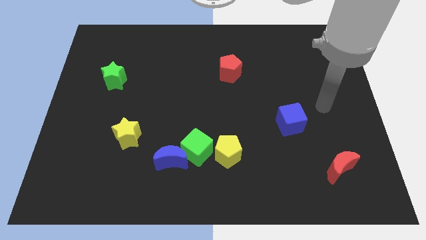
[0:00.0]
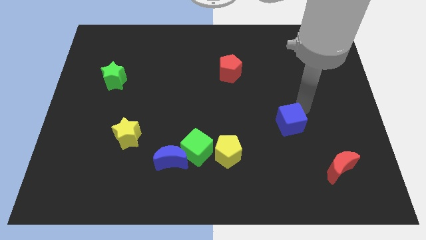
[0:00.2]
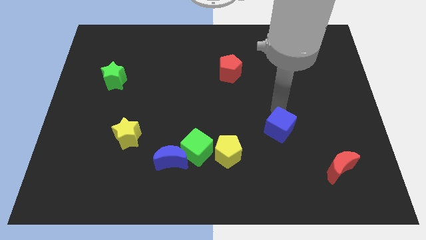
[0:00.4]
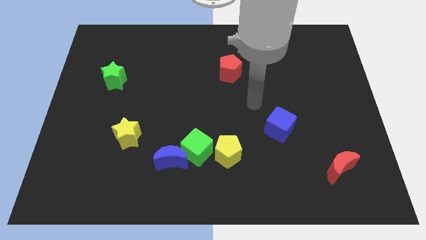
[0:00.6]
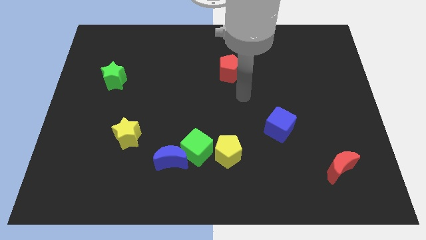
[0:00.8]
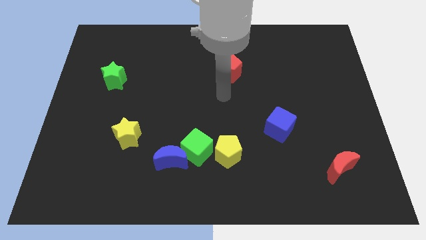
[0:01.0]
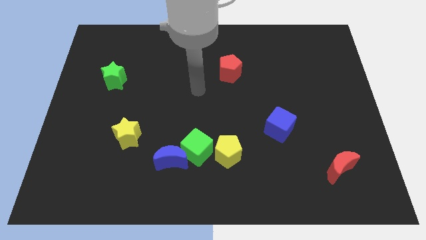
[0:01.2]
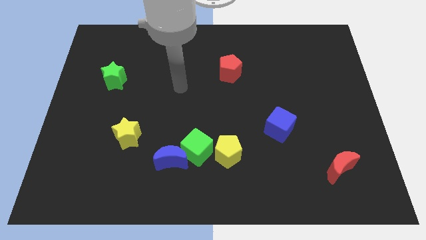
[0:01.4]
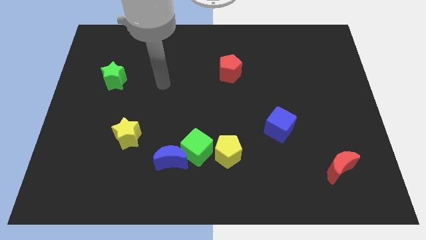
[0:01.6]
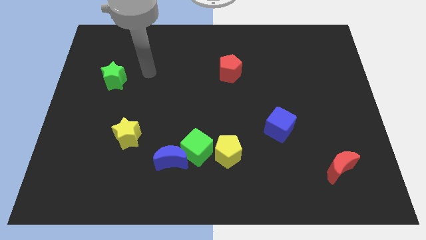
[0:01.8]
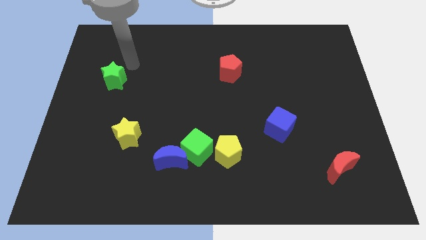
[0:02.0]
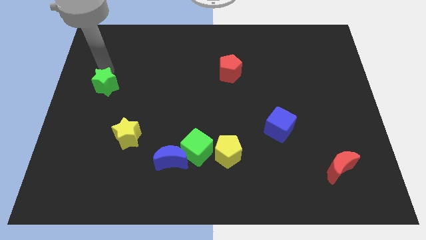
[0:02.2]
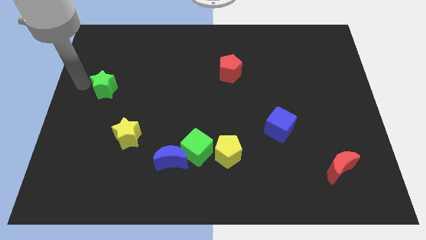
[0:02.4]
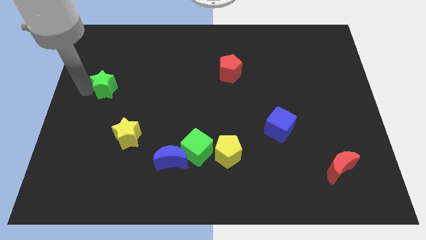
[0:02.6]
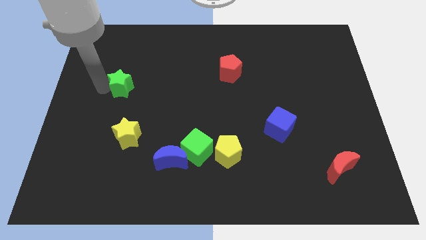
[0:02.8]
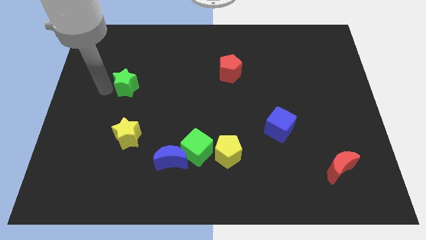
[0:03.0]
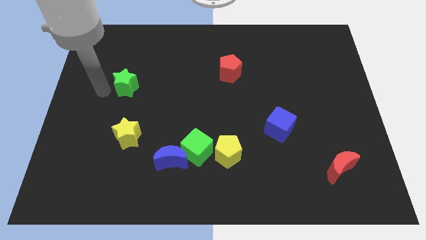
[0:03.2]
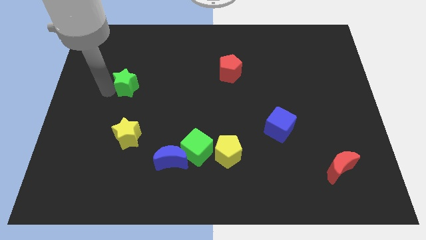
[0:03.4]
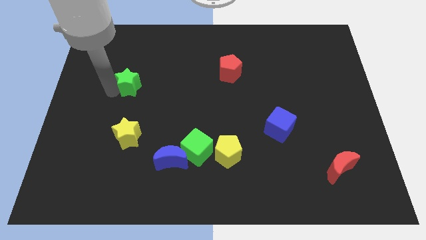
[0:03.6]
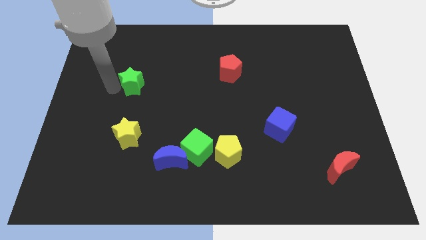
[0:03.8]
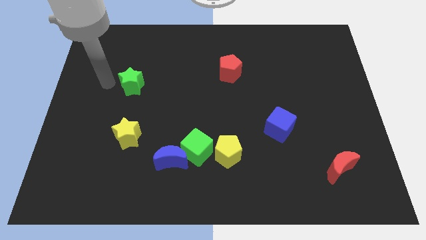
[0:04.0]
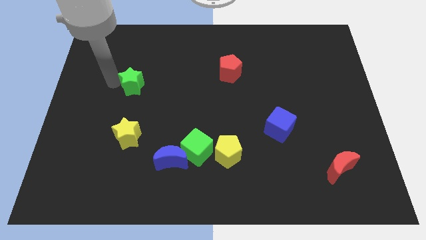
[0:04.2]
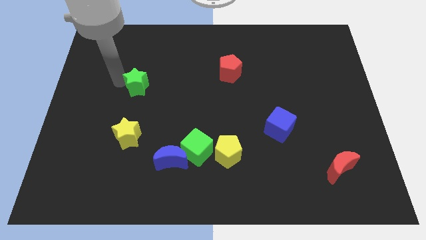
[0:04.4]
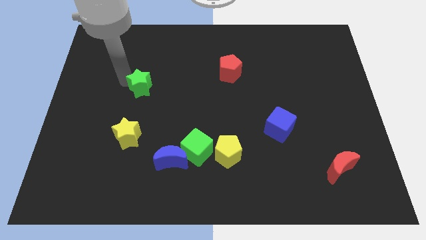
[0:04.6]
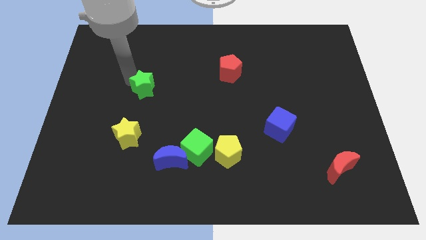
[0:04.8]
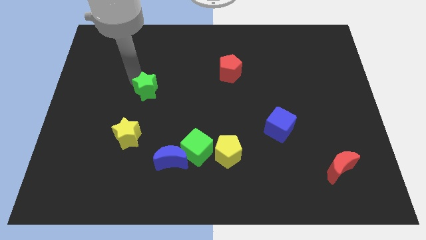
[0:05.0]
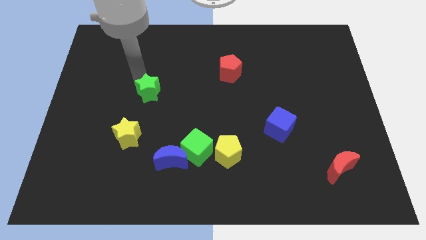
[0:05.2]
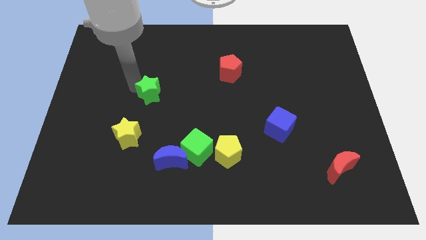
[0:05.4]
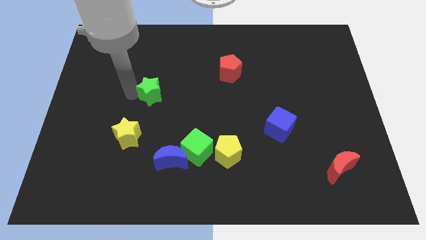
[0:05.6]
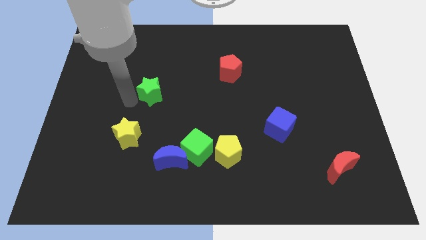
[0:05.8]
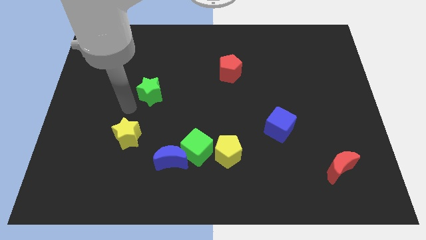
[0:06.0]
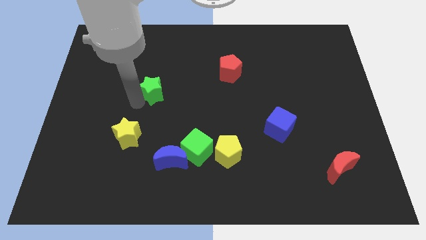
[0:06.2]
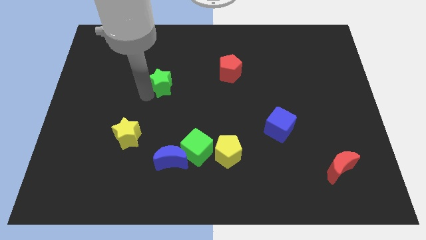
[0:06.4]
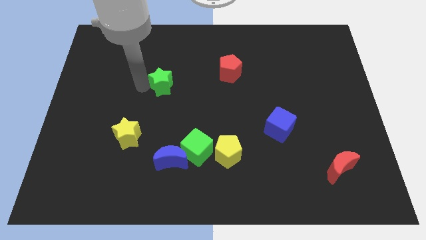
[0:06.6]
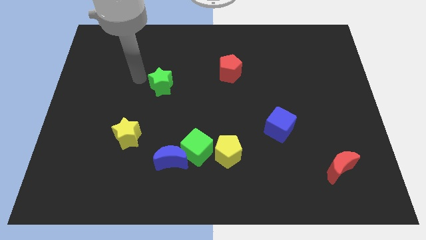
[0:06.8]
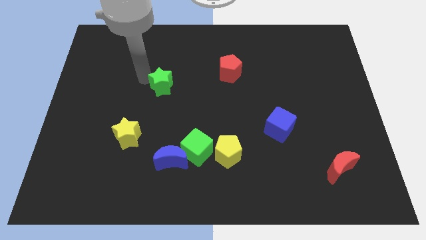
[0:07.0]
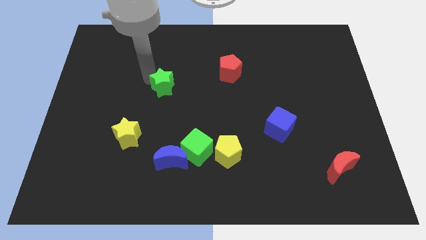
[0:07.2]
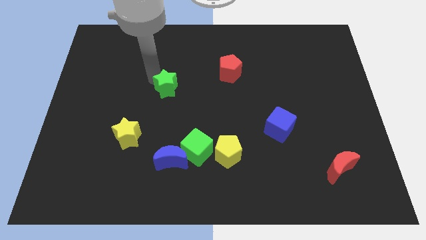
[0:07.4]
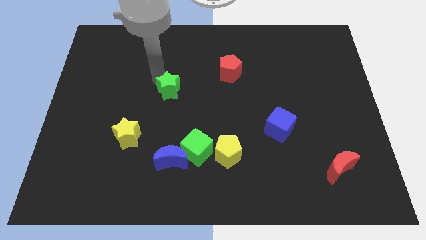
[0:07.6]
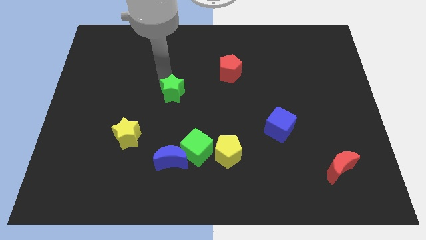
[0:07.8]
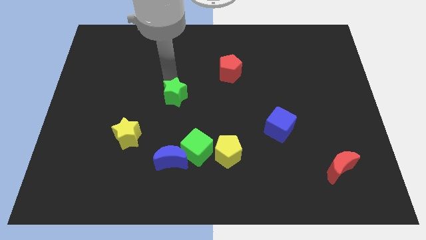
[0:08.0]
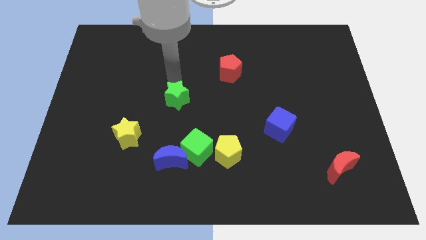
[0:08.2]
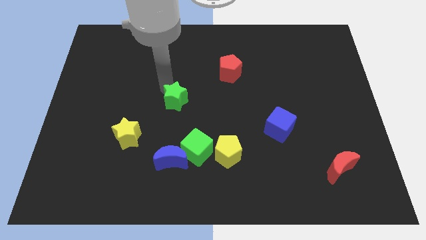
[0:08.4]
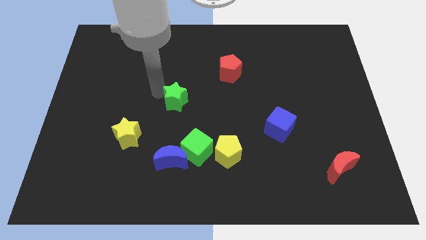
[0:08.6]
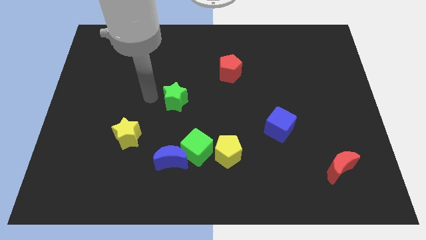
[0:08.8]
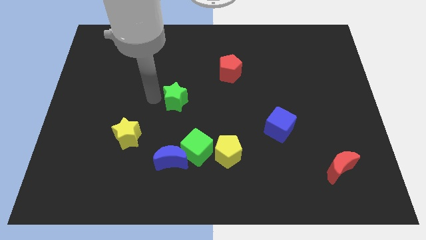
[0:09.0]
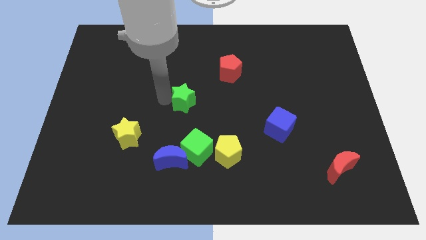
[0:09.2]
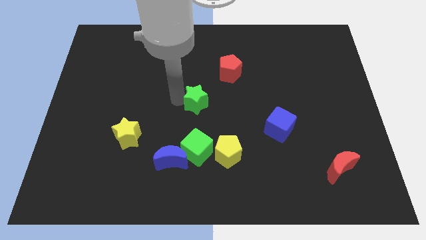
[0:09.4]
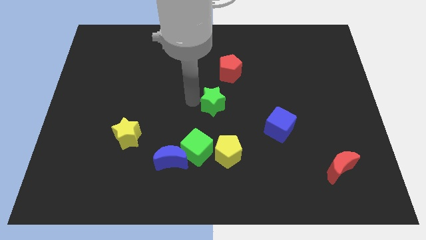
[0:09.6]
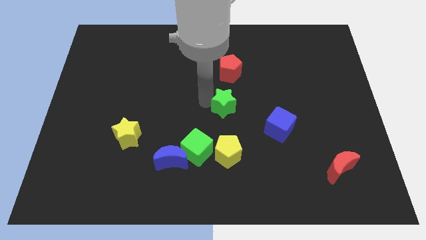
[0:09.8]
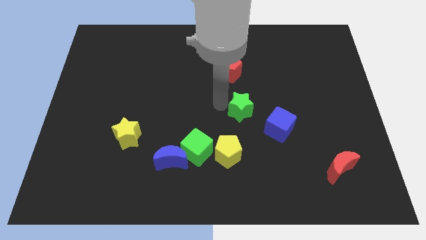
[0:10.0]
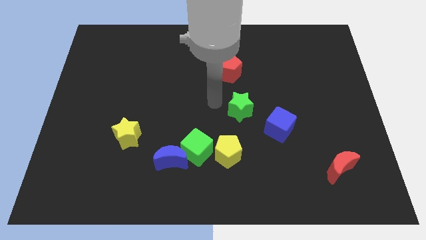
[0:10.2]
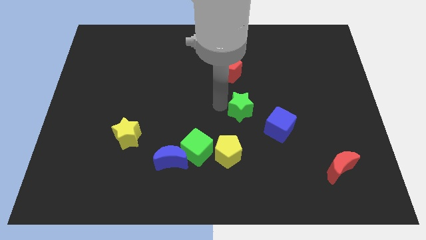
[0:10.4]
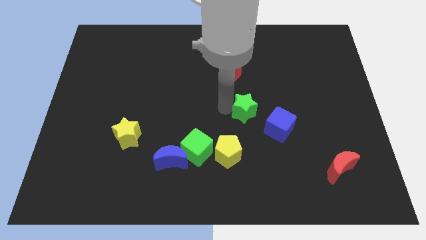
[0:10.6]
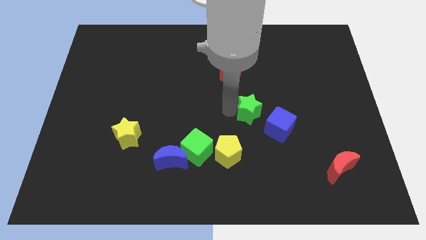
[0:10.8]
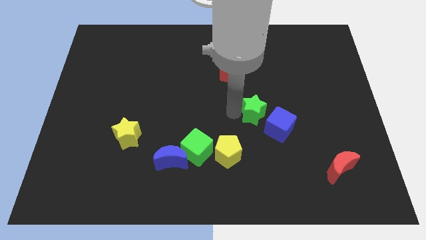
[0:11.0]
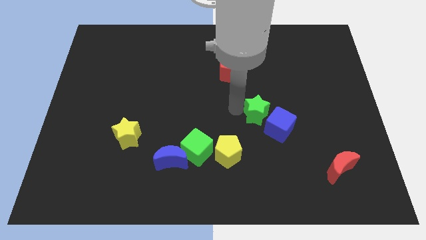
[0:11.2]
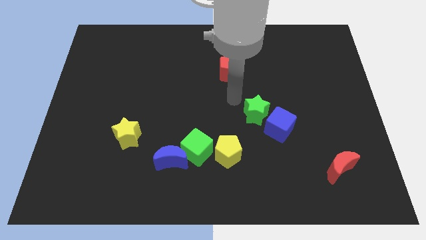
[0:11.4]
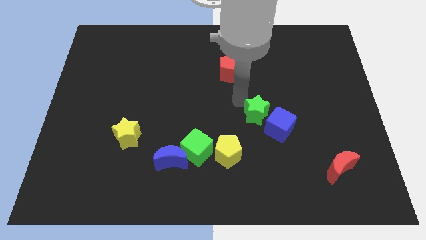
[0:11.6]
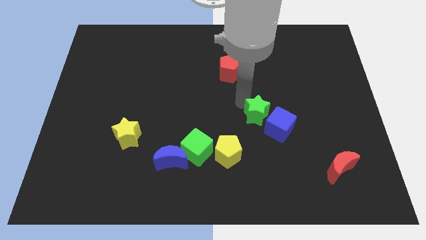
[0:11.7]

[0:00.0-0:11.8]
move the green star towards the blue cube

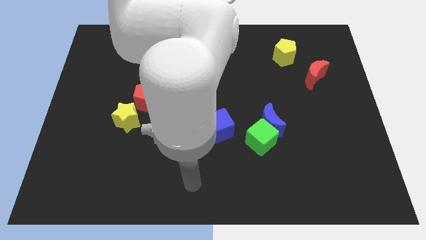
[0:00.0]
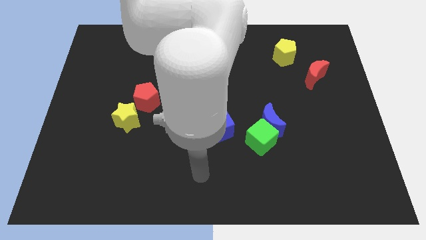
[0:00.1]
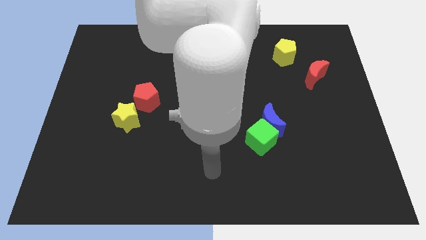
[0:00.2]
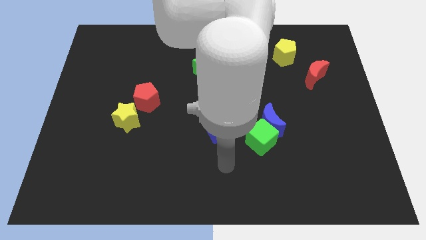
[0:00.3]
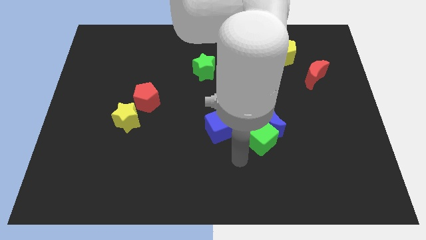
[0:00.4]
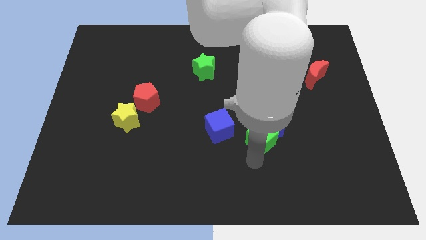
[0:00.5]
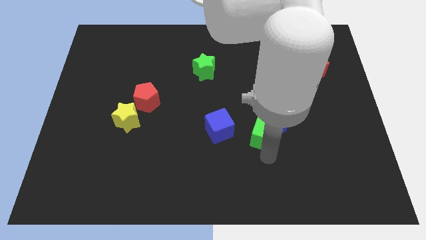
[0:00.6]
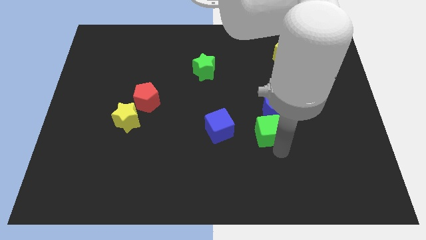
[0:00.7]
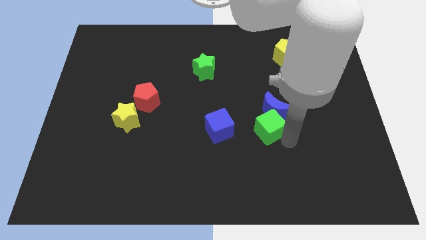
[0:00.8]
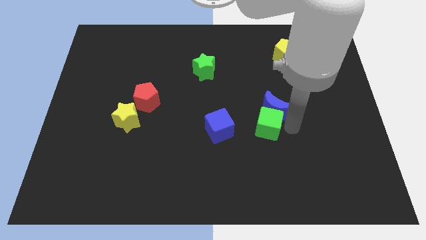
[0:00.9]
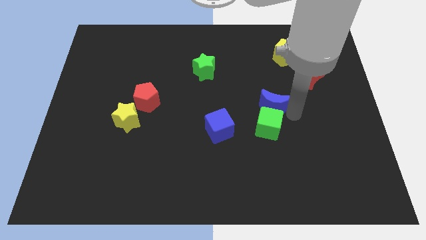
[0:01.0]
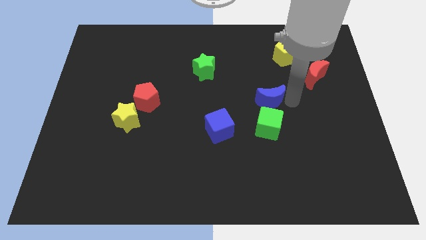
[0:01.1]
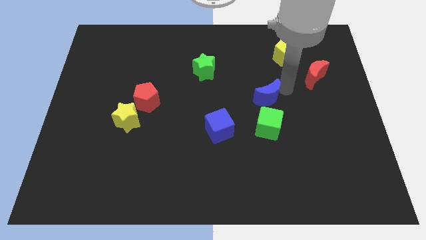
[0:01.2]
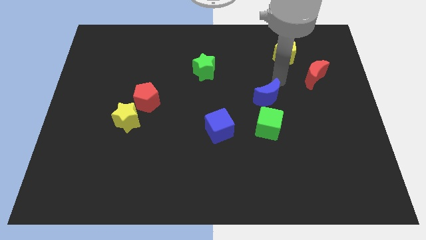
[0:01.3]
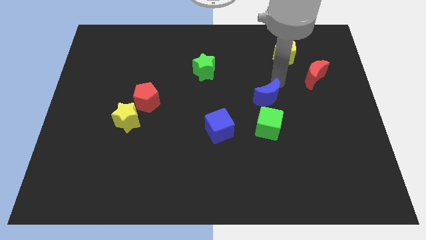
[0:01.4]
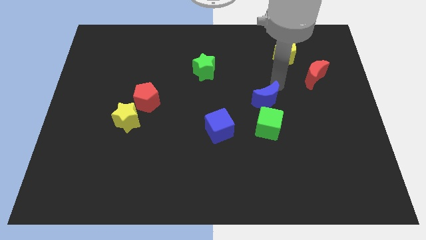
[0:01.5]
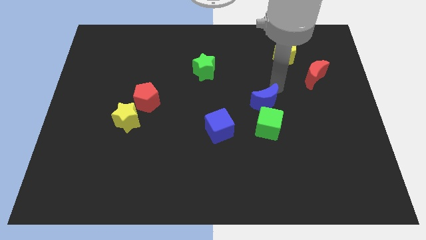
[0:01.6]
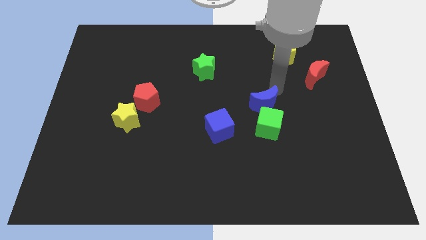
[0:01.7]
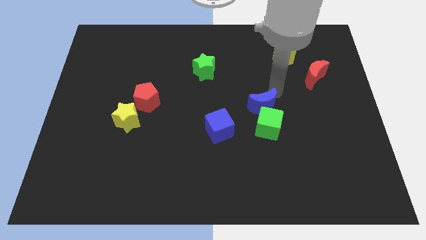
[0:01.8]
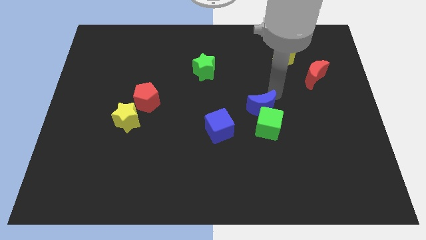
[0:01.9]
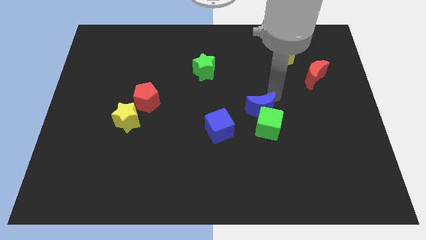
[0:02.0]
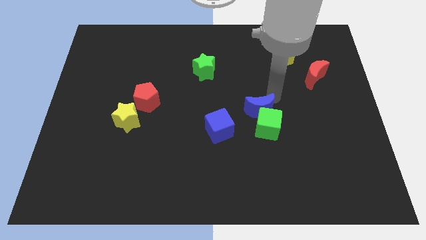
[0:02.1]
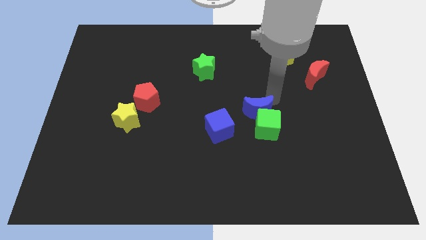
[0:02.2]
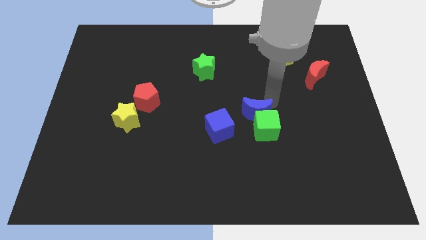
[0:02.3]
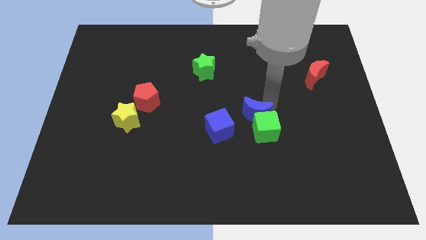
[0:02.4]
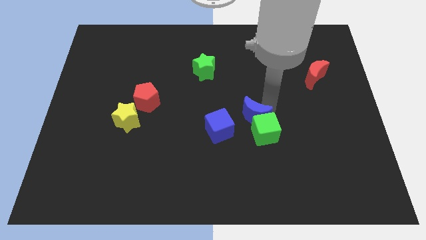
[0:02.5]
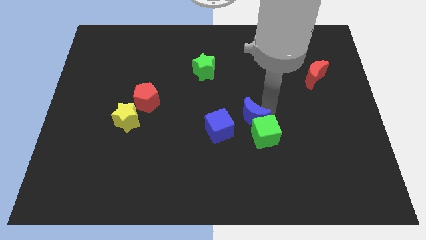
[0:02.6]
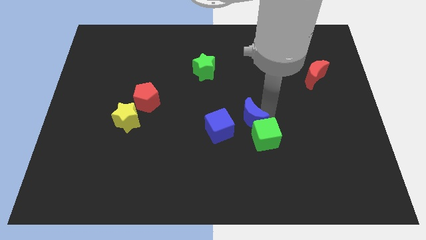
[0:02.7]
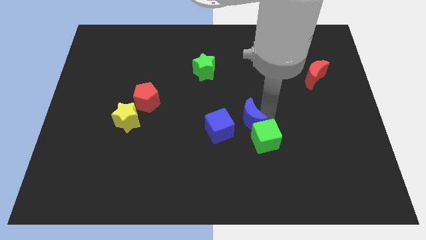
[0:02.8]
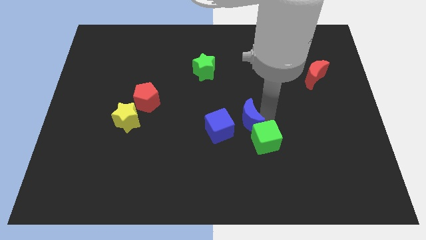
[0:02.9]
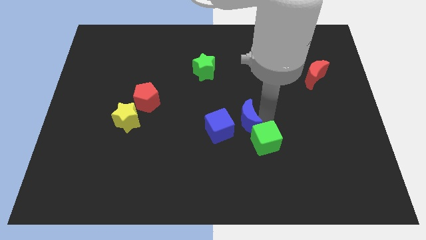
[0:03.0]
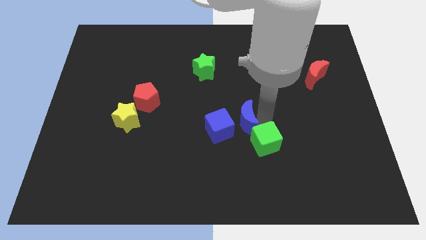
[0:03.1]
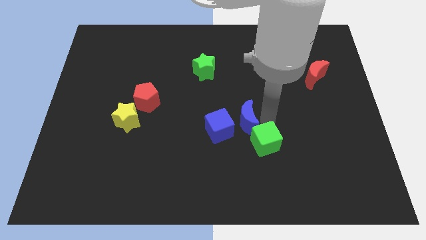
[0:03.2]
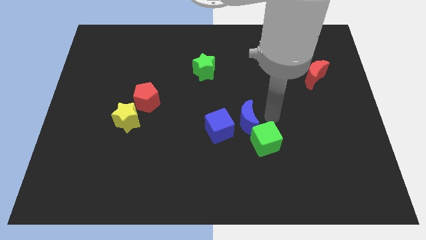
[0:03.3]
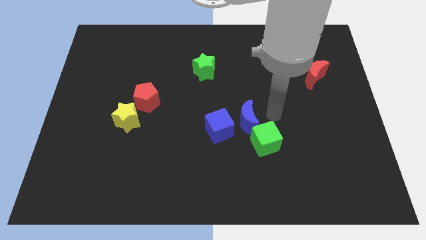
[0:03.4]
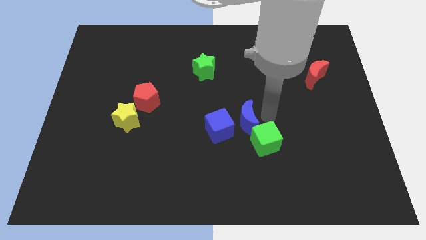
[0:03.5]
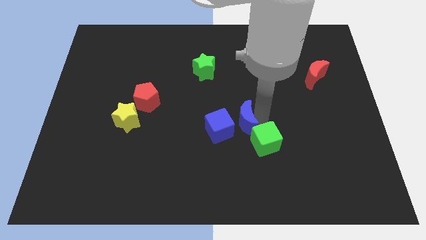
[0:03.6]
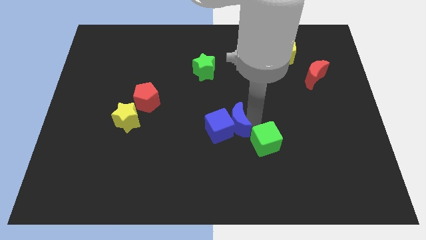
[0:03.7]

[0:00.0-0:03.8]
slide the blue moon towards the blue cube
